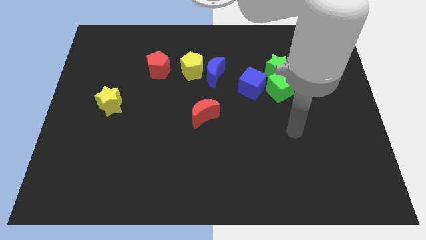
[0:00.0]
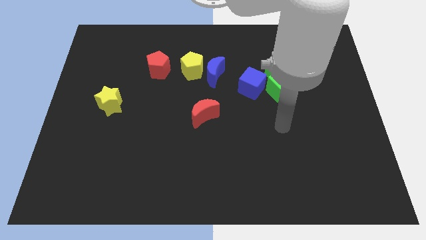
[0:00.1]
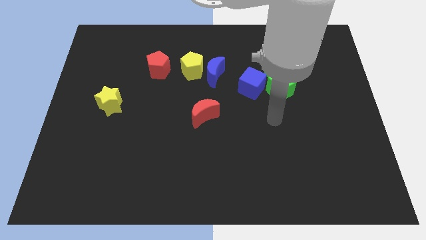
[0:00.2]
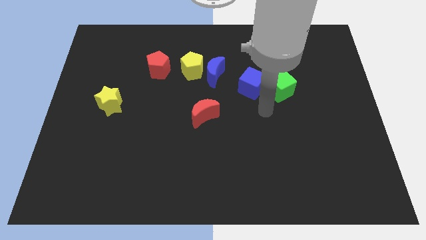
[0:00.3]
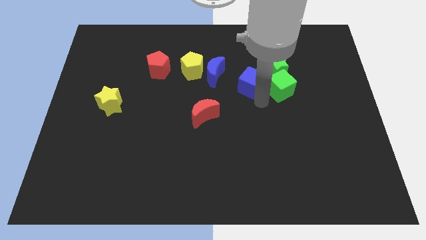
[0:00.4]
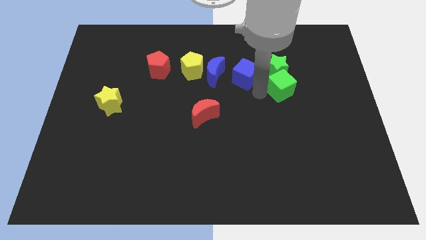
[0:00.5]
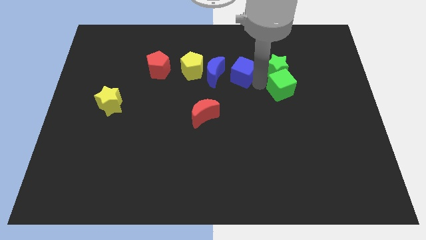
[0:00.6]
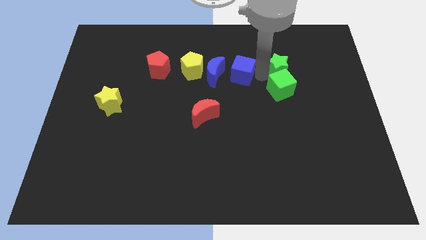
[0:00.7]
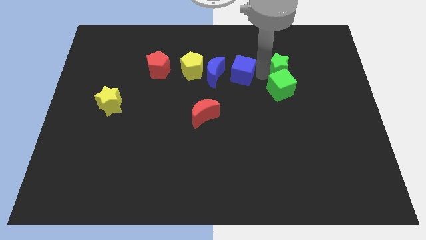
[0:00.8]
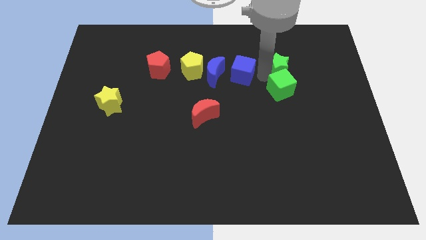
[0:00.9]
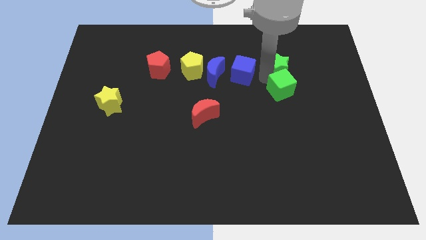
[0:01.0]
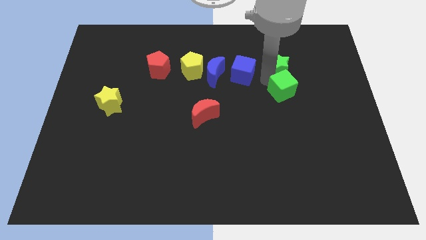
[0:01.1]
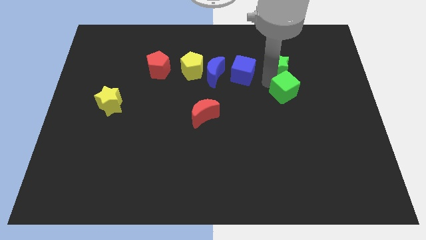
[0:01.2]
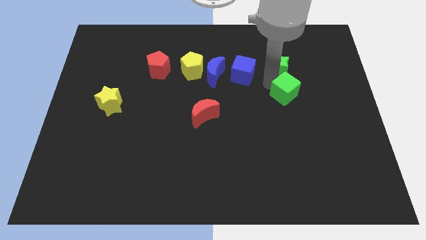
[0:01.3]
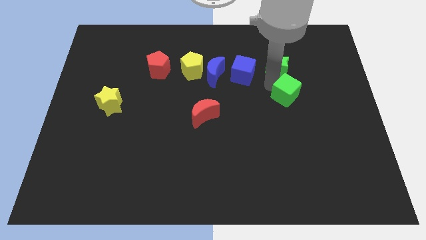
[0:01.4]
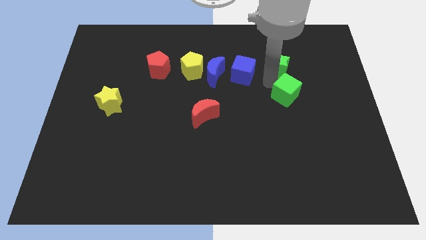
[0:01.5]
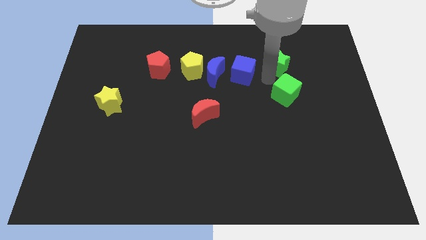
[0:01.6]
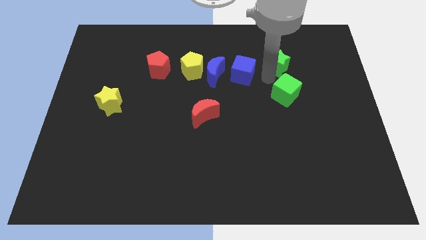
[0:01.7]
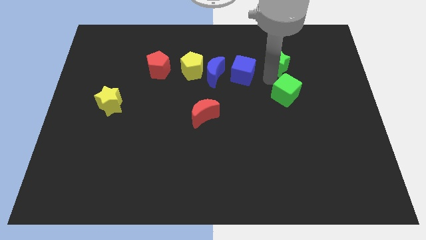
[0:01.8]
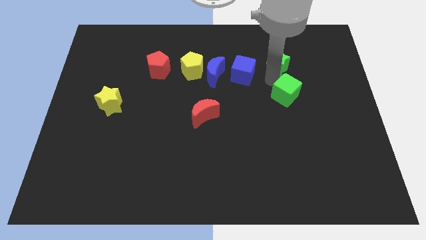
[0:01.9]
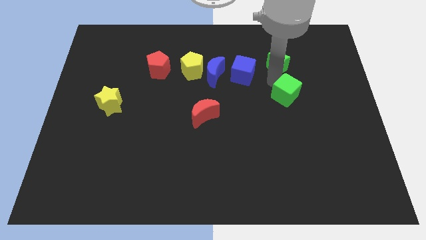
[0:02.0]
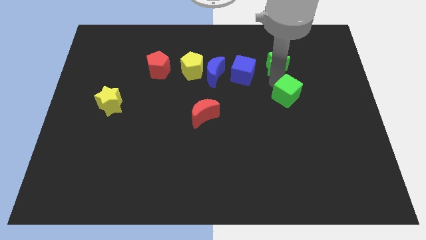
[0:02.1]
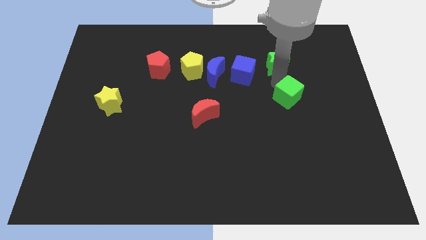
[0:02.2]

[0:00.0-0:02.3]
pull the green cube apart from the green star and blue cube

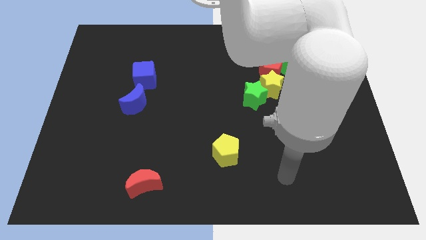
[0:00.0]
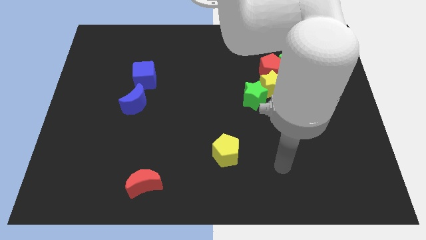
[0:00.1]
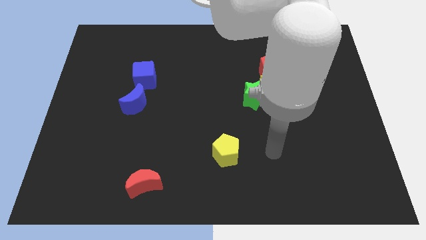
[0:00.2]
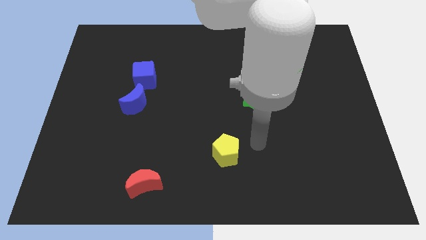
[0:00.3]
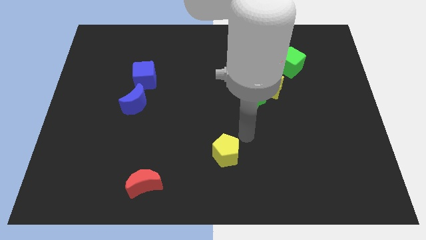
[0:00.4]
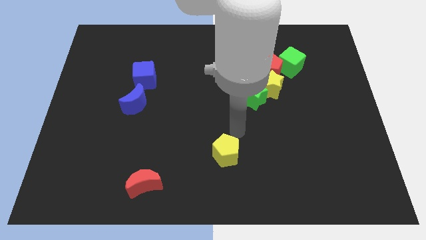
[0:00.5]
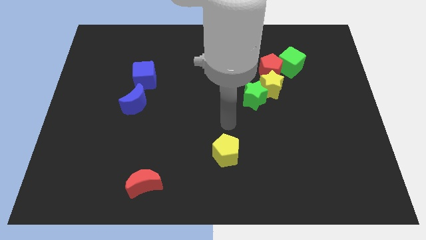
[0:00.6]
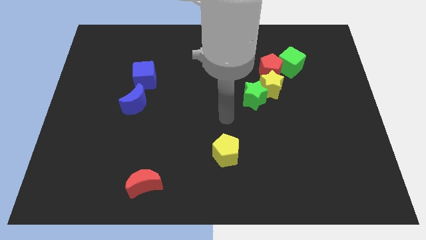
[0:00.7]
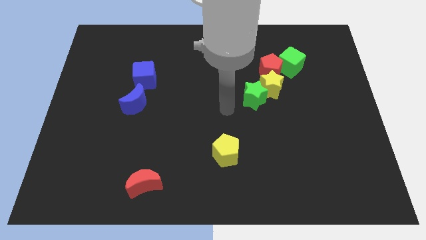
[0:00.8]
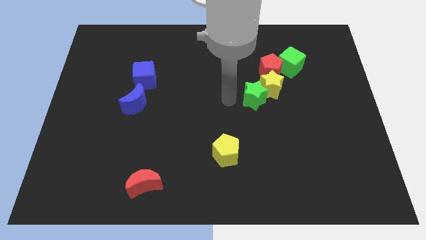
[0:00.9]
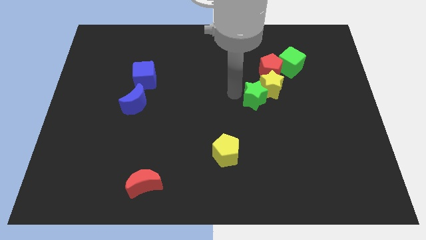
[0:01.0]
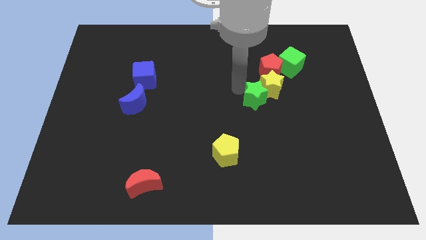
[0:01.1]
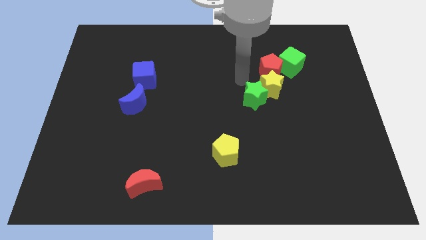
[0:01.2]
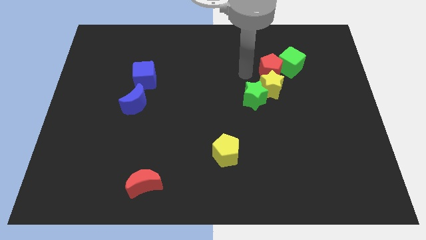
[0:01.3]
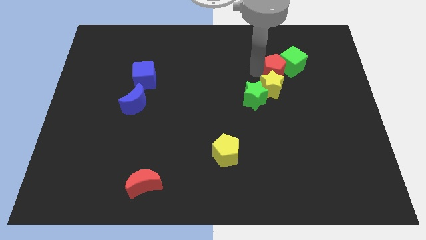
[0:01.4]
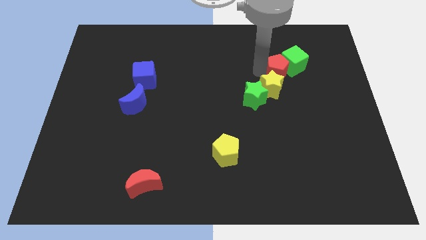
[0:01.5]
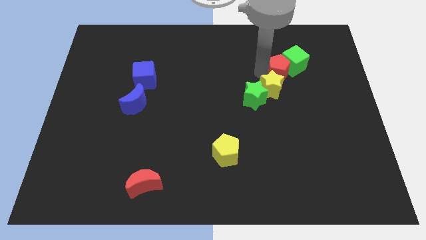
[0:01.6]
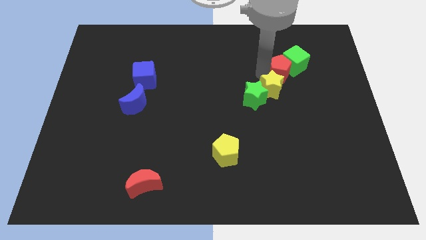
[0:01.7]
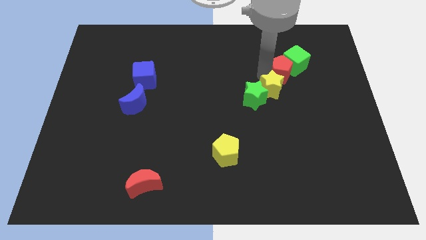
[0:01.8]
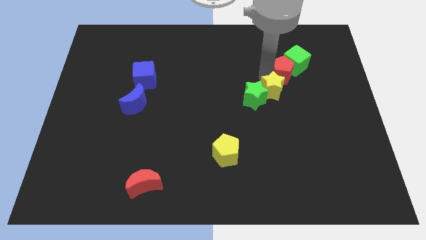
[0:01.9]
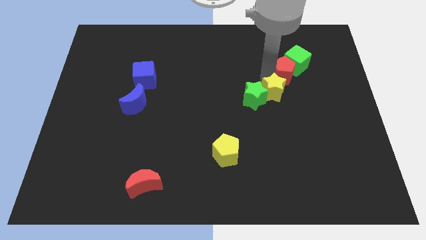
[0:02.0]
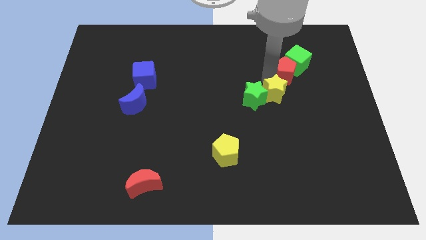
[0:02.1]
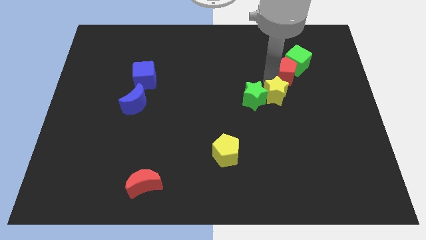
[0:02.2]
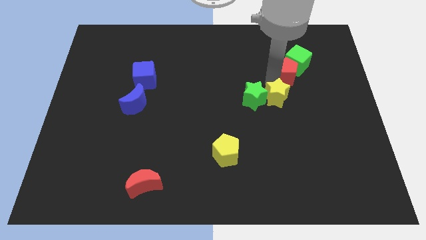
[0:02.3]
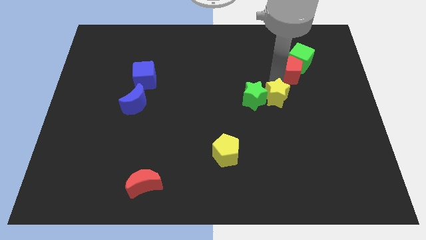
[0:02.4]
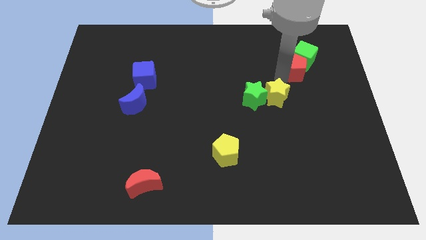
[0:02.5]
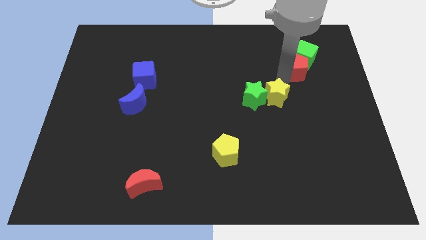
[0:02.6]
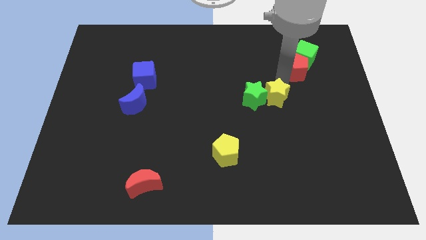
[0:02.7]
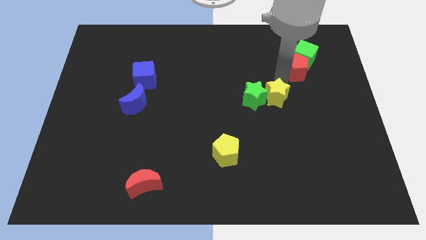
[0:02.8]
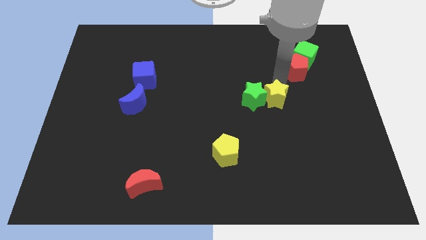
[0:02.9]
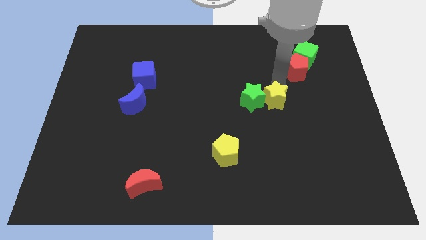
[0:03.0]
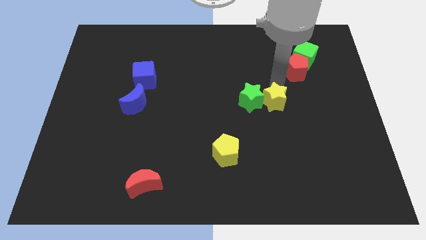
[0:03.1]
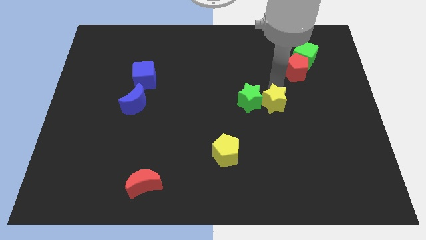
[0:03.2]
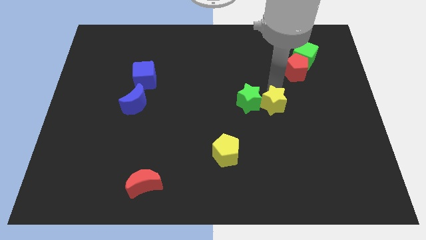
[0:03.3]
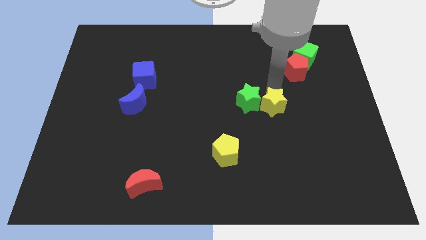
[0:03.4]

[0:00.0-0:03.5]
move the yellow star away from the green star, red pentagon, and green cube

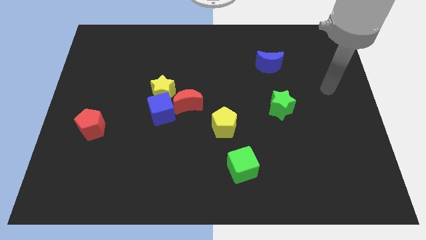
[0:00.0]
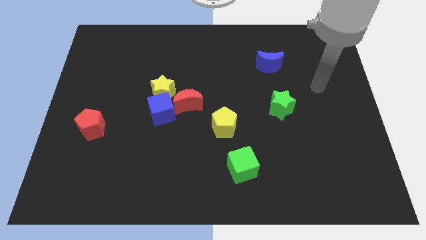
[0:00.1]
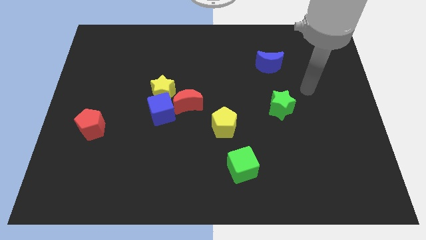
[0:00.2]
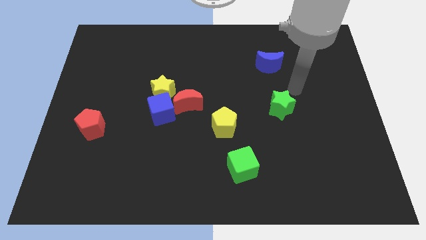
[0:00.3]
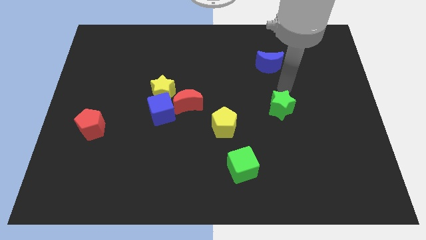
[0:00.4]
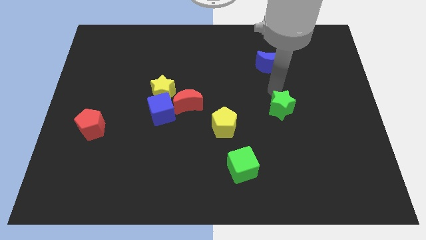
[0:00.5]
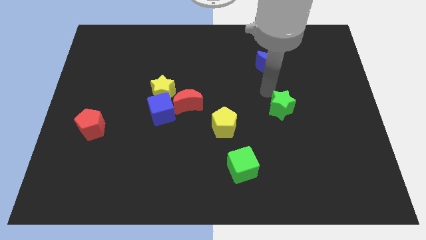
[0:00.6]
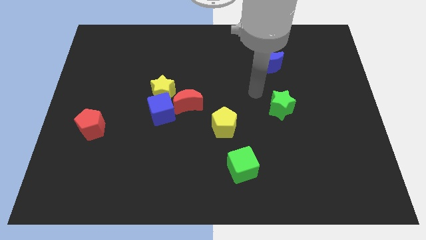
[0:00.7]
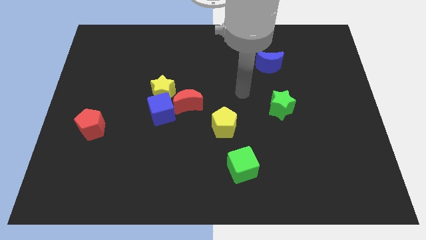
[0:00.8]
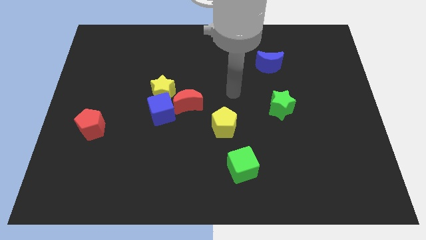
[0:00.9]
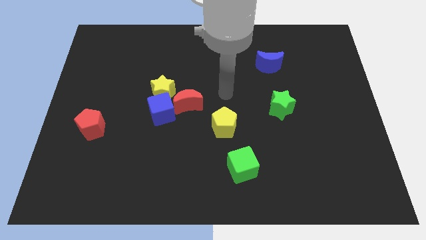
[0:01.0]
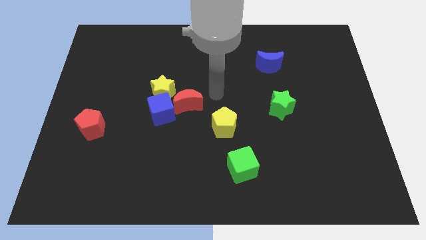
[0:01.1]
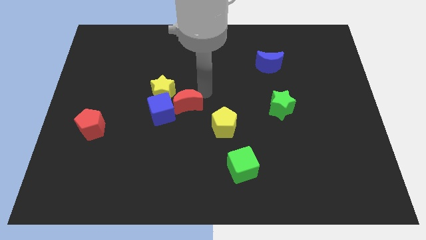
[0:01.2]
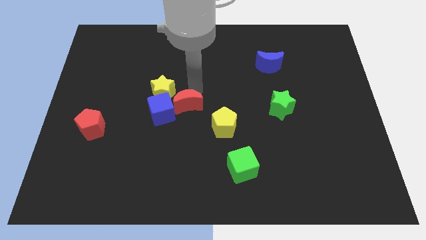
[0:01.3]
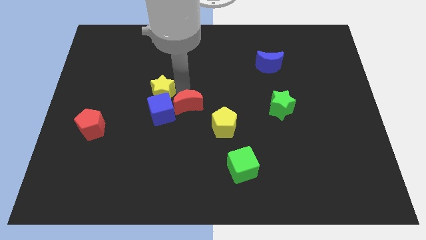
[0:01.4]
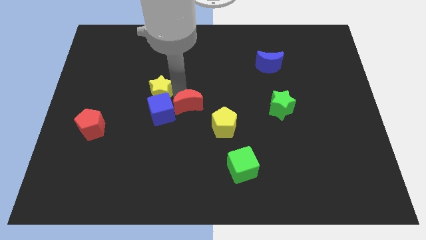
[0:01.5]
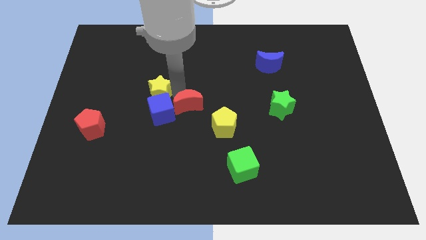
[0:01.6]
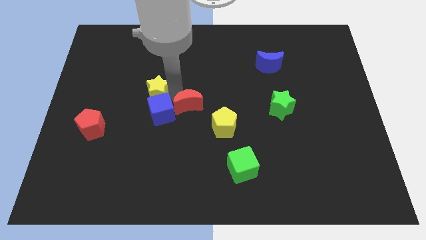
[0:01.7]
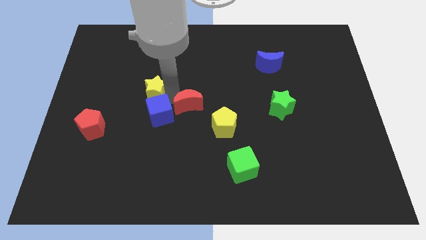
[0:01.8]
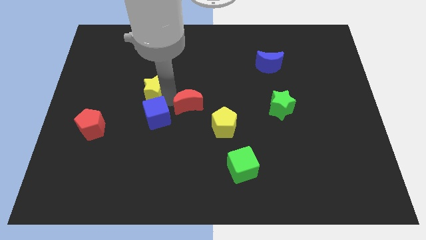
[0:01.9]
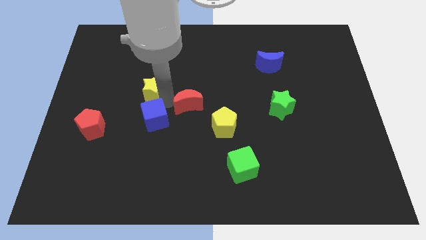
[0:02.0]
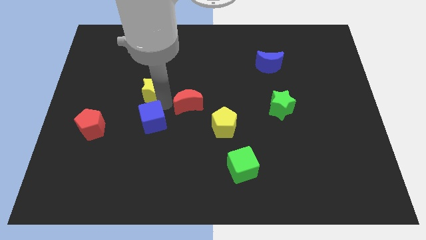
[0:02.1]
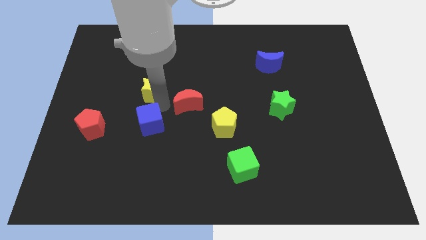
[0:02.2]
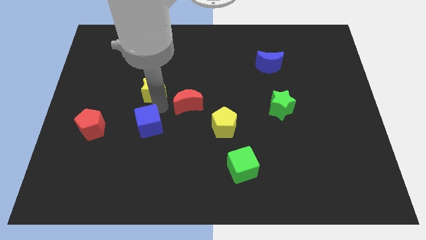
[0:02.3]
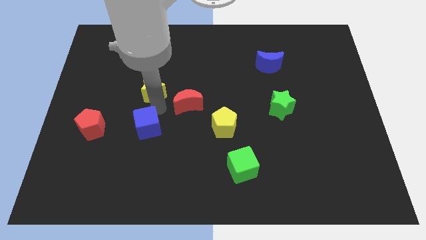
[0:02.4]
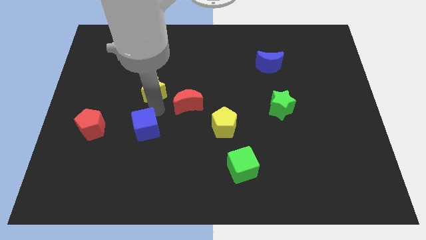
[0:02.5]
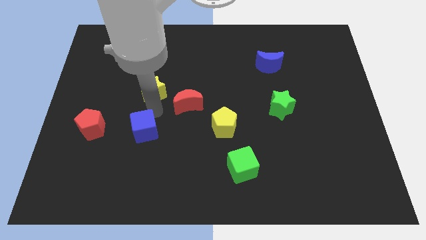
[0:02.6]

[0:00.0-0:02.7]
separate the blue cube from the yellow star and red moon

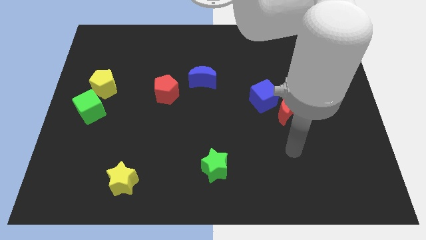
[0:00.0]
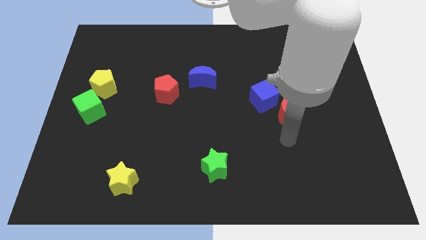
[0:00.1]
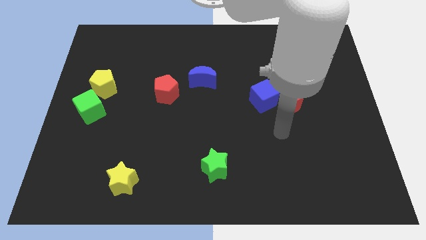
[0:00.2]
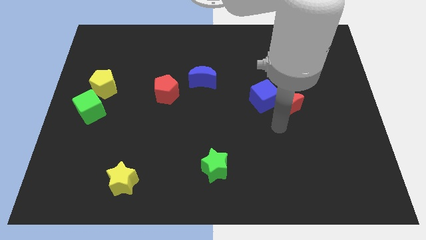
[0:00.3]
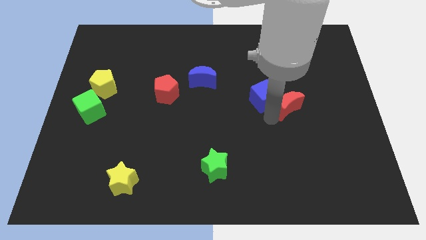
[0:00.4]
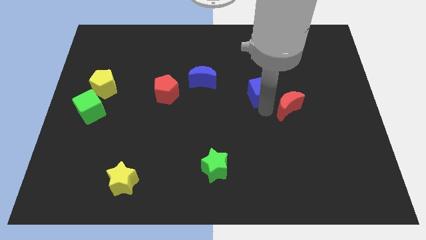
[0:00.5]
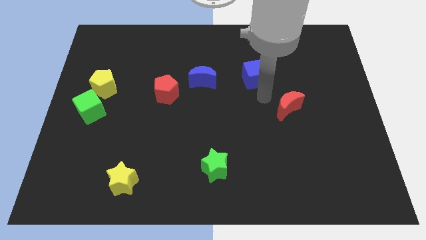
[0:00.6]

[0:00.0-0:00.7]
pull the red moon apart from the blue cube

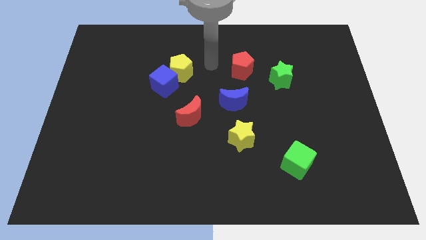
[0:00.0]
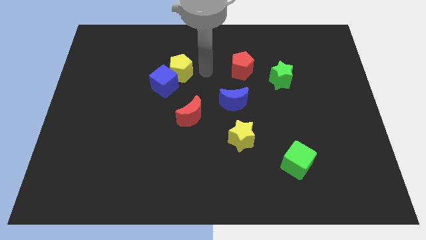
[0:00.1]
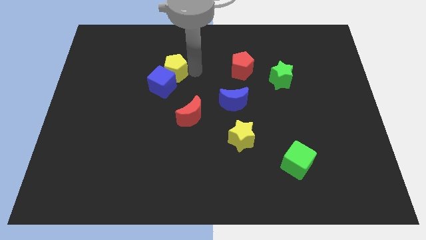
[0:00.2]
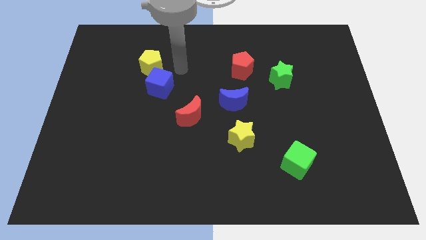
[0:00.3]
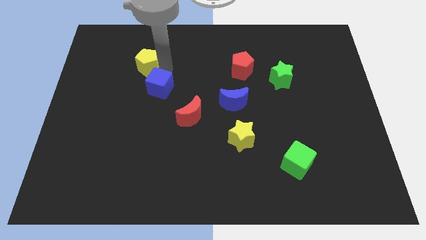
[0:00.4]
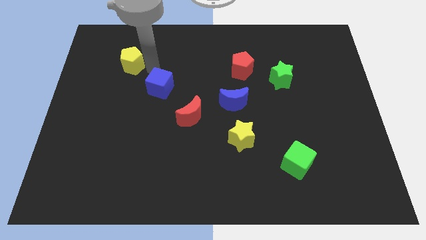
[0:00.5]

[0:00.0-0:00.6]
pull the blue cube apart from the yellow pentagon
